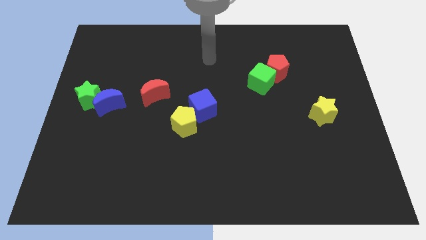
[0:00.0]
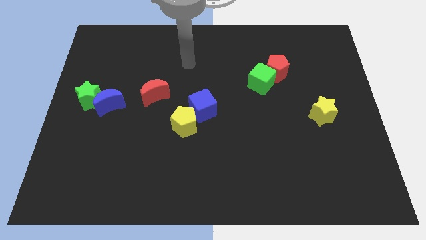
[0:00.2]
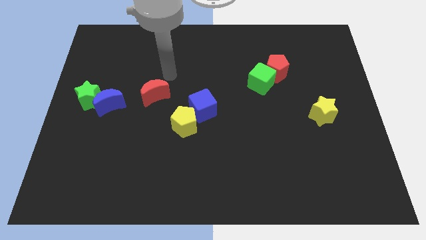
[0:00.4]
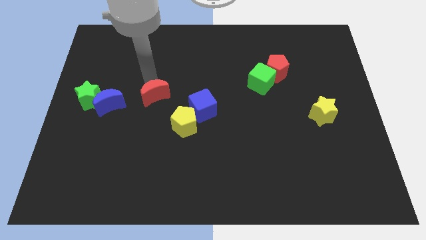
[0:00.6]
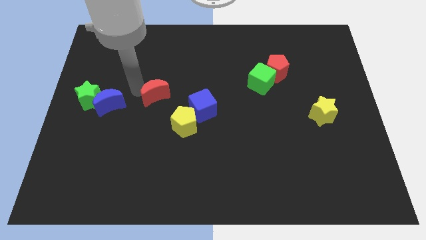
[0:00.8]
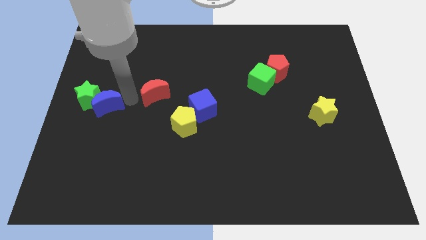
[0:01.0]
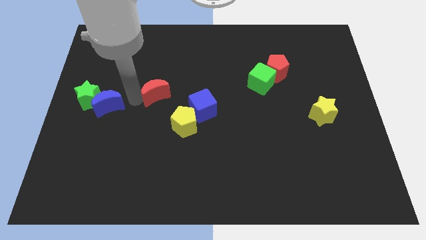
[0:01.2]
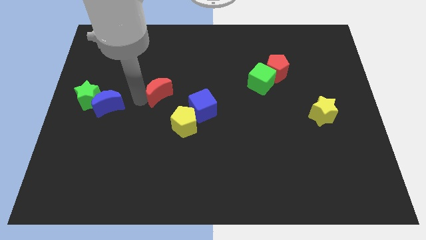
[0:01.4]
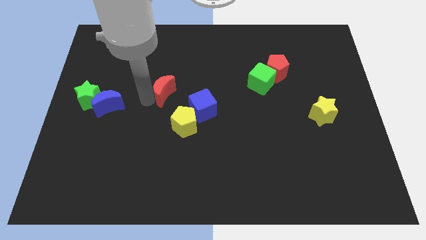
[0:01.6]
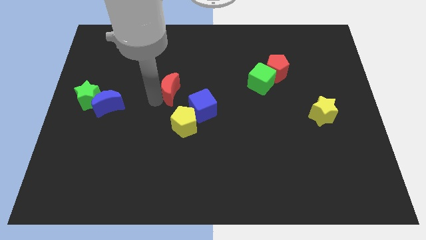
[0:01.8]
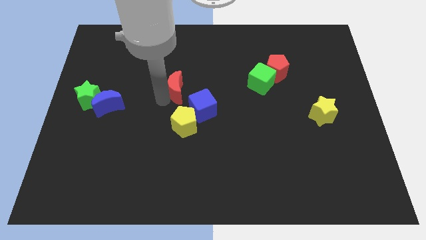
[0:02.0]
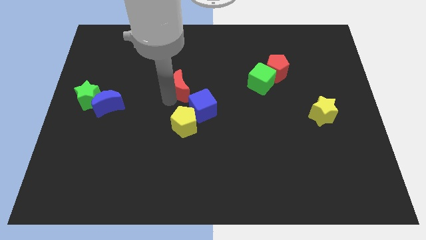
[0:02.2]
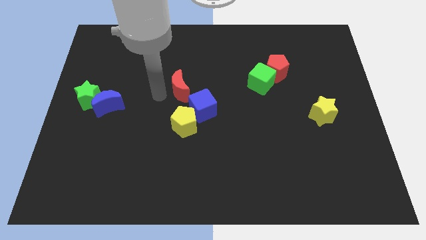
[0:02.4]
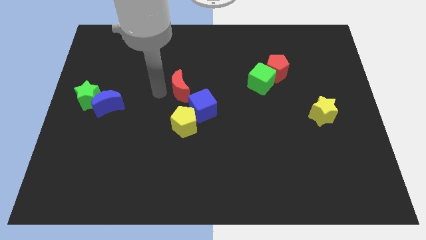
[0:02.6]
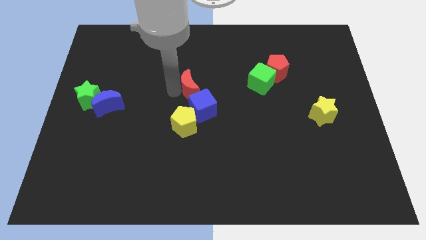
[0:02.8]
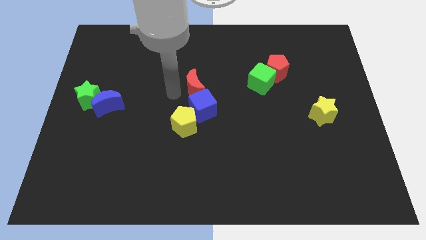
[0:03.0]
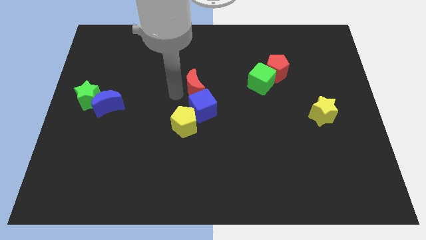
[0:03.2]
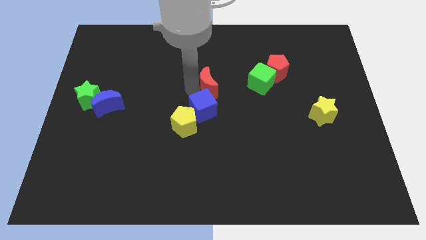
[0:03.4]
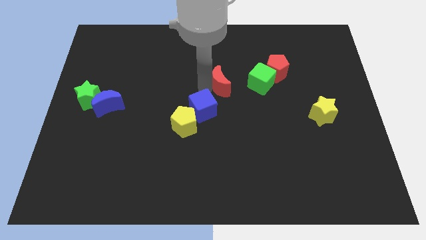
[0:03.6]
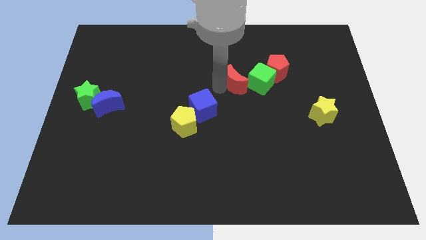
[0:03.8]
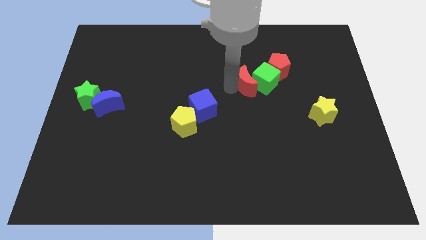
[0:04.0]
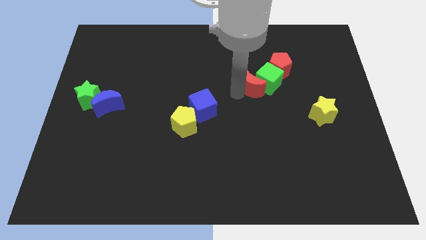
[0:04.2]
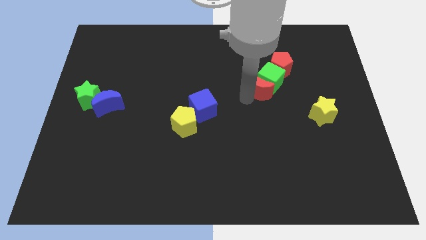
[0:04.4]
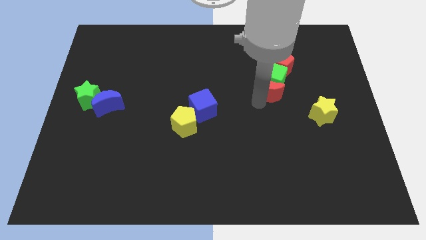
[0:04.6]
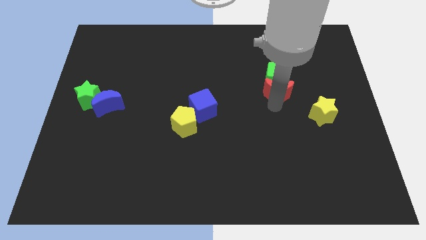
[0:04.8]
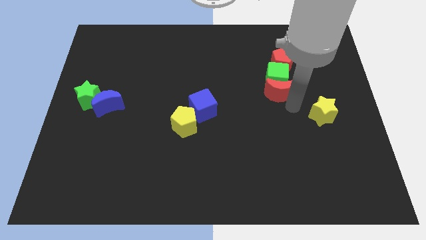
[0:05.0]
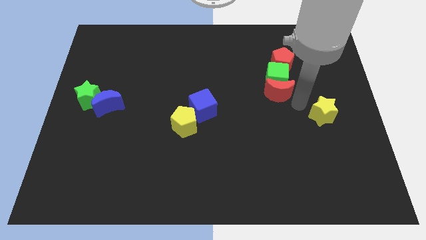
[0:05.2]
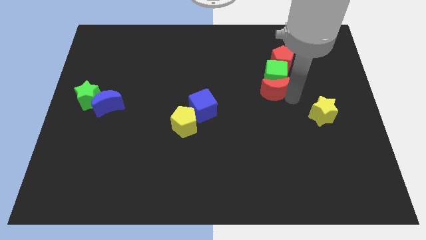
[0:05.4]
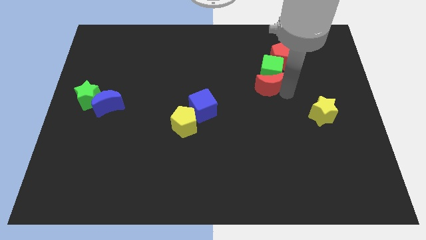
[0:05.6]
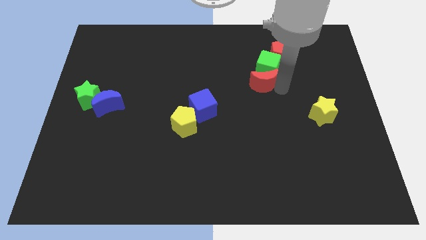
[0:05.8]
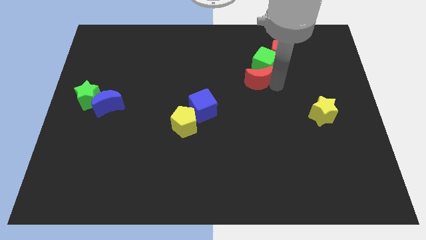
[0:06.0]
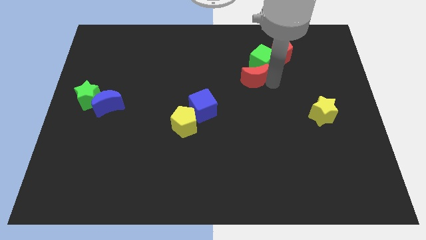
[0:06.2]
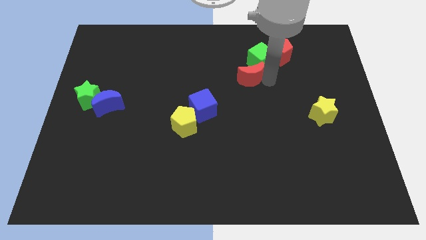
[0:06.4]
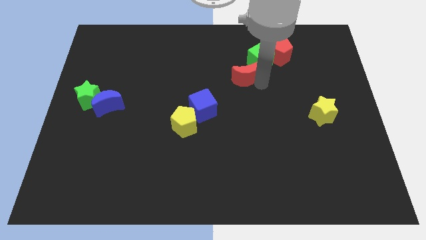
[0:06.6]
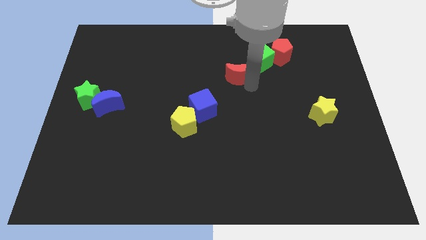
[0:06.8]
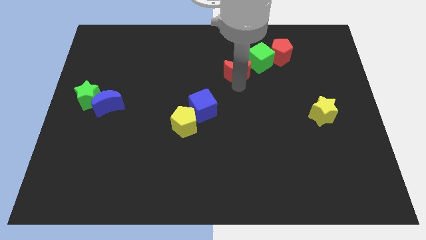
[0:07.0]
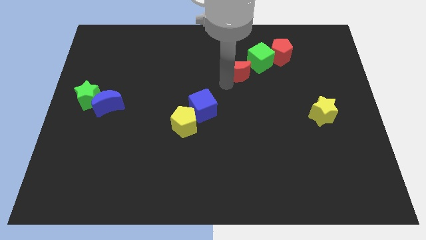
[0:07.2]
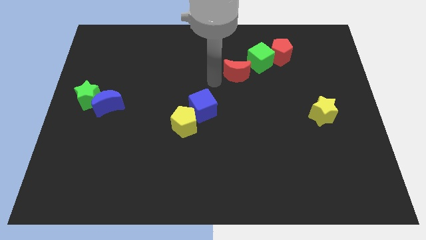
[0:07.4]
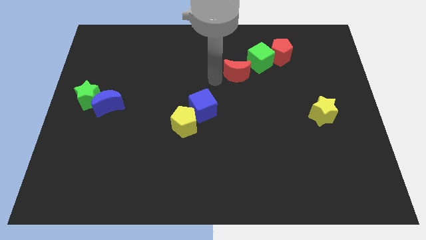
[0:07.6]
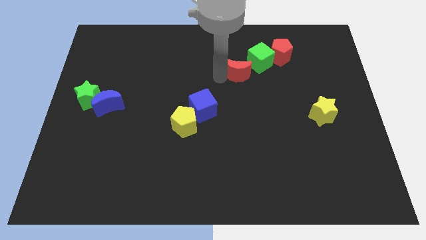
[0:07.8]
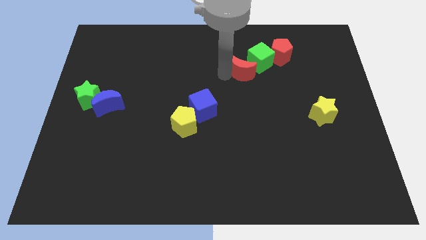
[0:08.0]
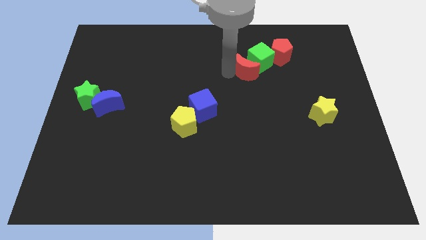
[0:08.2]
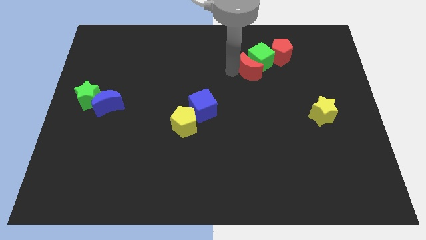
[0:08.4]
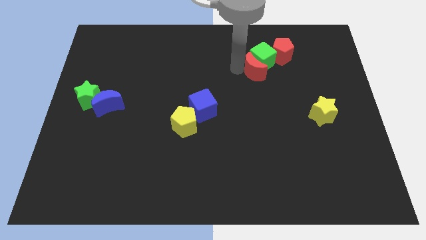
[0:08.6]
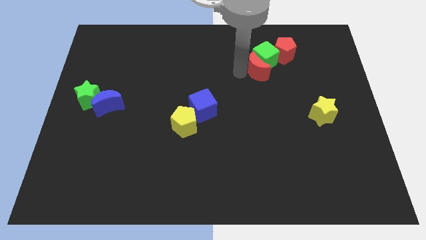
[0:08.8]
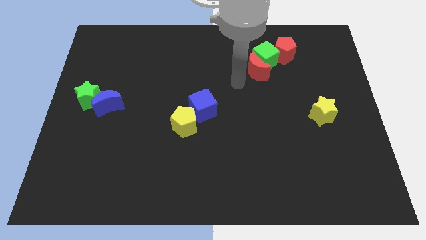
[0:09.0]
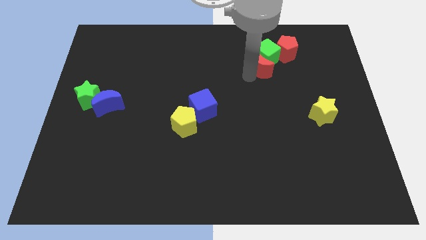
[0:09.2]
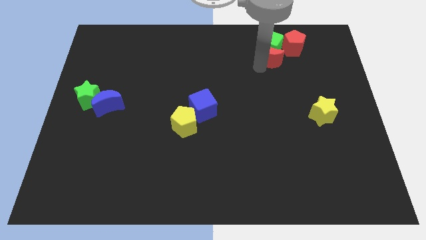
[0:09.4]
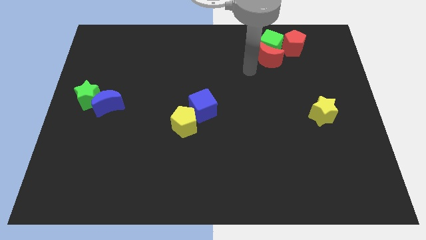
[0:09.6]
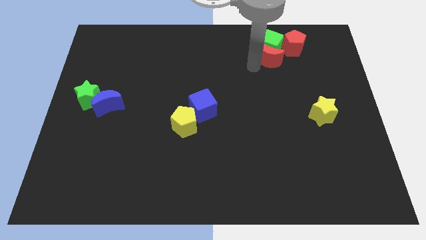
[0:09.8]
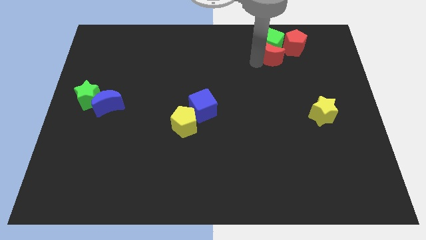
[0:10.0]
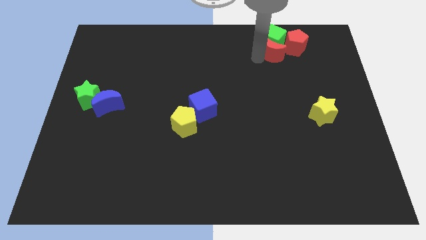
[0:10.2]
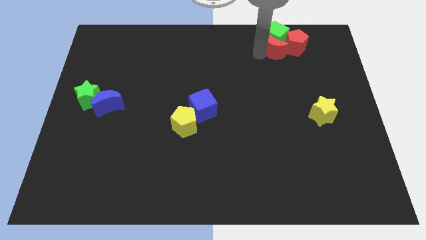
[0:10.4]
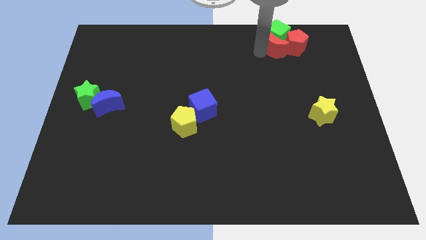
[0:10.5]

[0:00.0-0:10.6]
push the red moon to the red pentagon

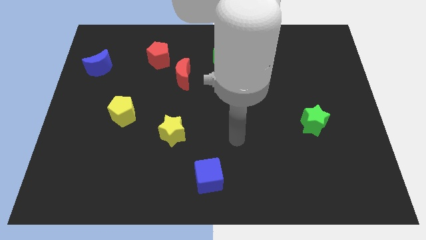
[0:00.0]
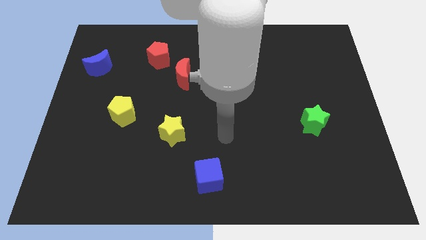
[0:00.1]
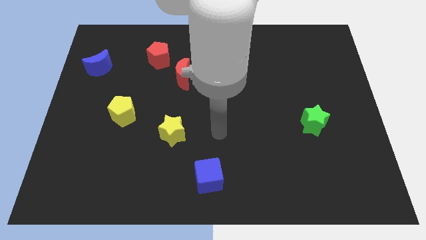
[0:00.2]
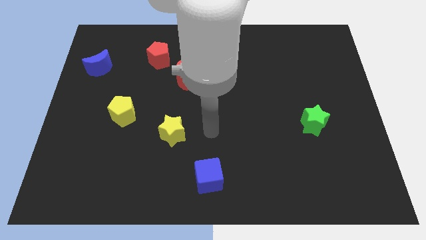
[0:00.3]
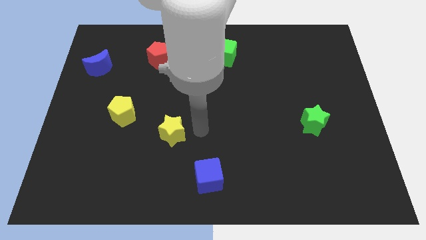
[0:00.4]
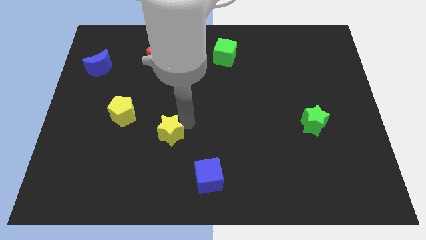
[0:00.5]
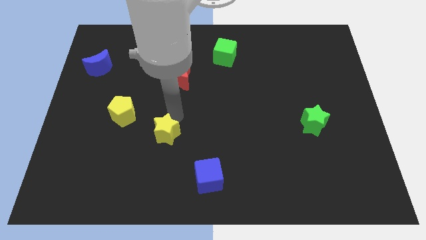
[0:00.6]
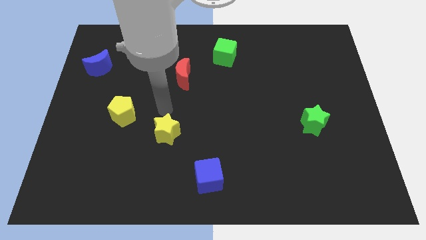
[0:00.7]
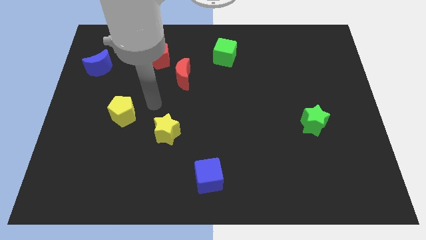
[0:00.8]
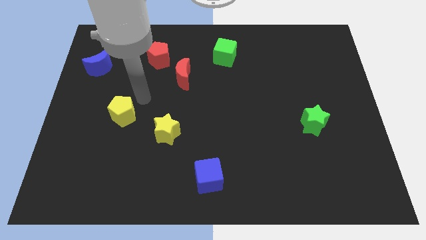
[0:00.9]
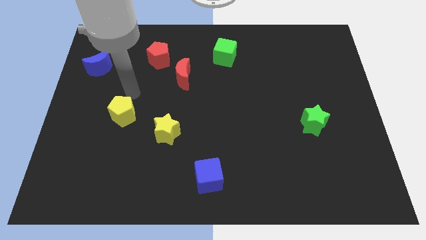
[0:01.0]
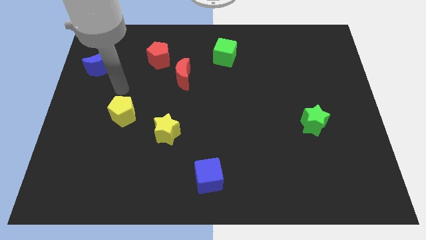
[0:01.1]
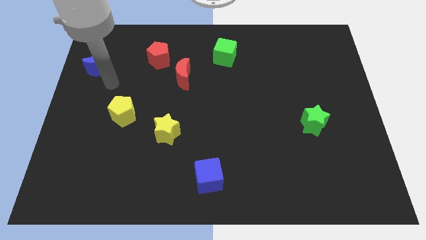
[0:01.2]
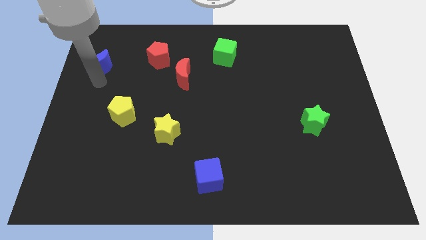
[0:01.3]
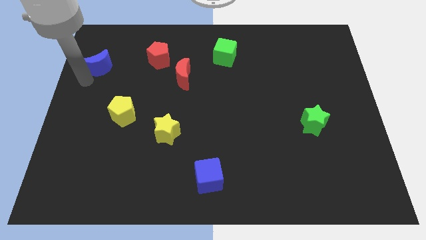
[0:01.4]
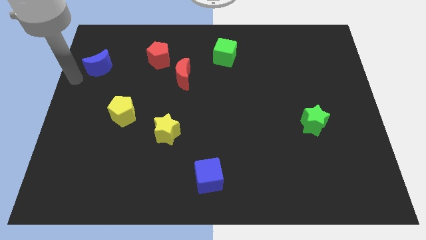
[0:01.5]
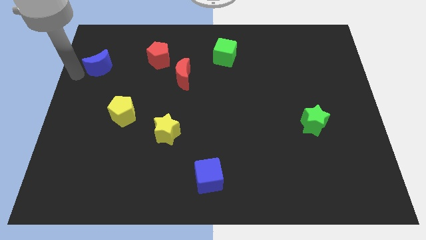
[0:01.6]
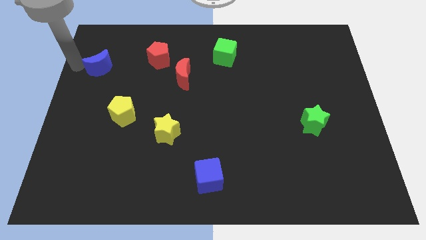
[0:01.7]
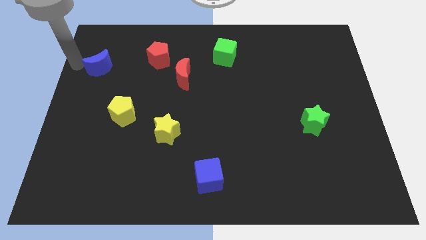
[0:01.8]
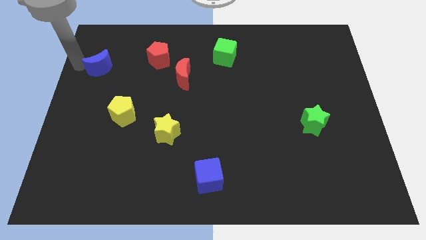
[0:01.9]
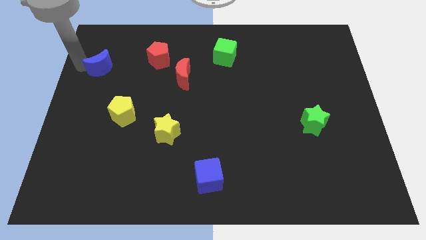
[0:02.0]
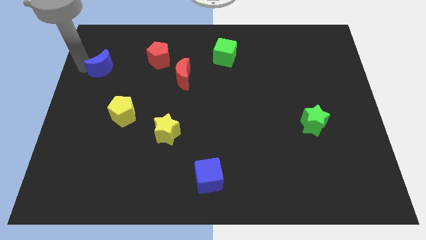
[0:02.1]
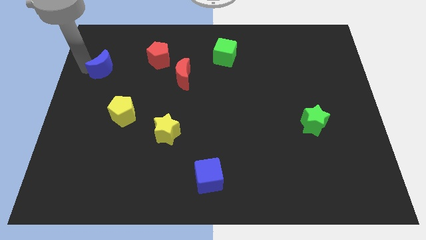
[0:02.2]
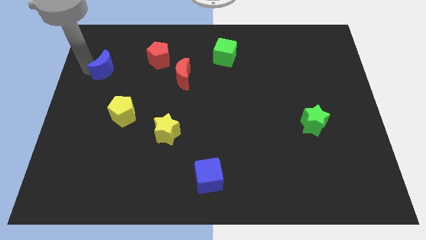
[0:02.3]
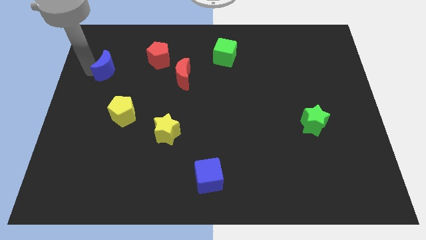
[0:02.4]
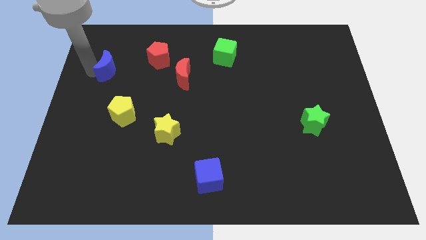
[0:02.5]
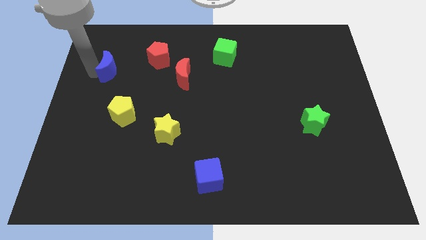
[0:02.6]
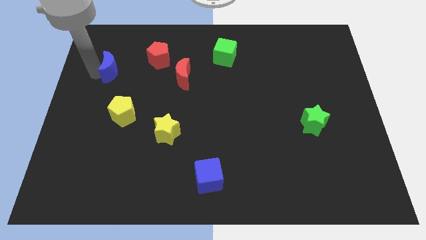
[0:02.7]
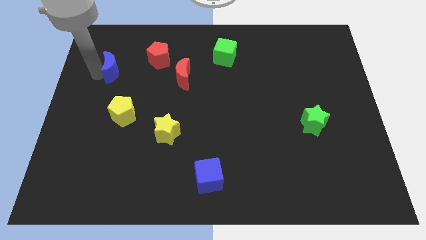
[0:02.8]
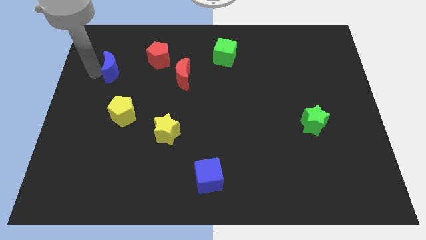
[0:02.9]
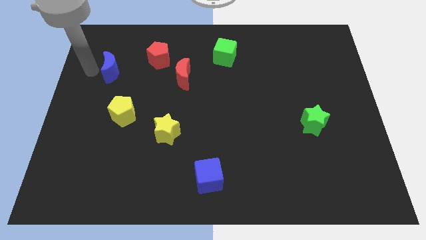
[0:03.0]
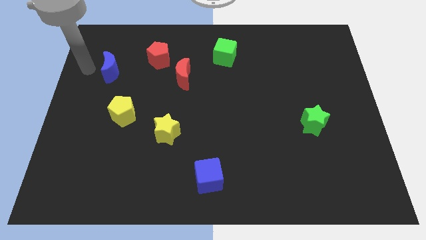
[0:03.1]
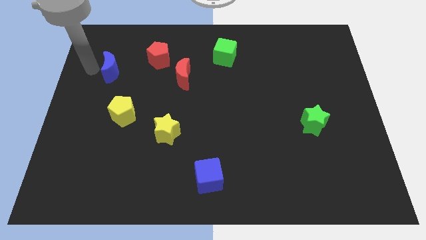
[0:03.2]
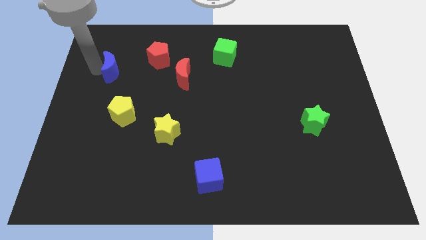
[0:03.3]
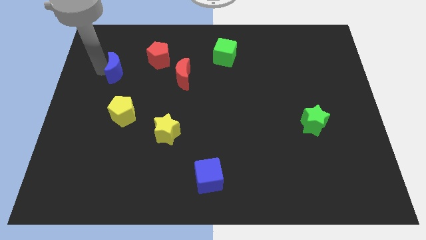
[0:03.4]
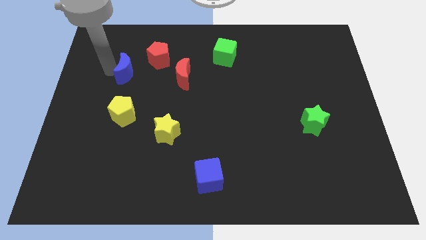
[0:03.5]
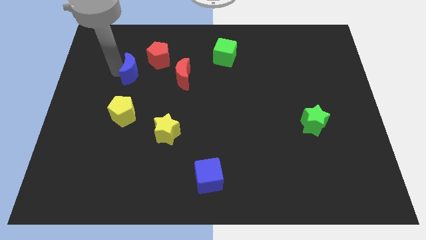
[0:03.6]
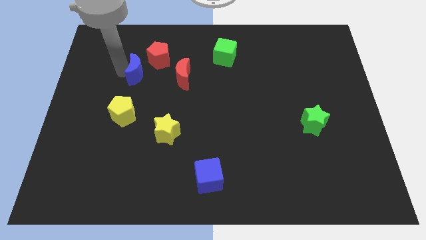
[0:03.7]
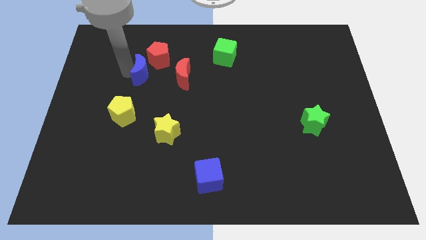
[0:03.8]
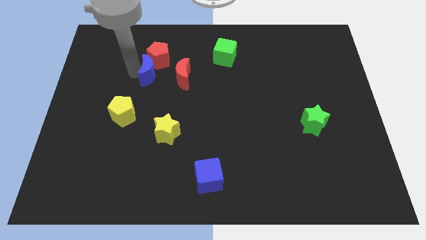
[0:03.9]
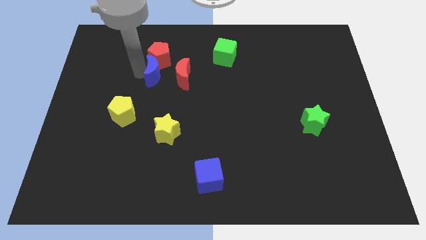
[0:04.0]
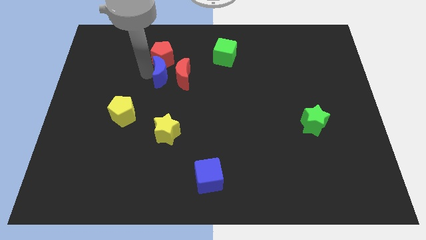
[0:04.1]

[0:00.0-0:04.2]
put the blue moon close to the red moon
